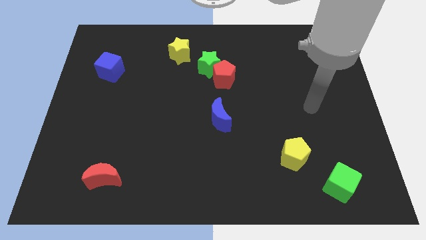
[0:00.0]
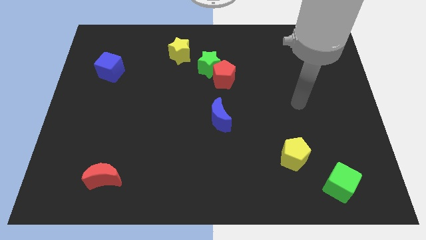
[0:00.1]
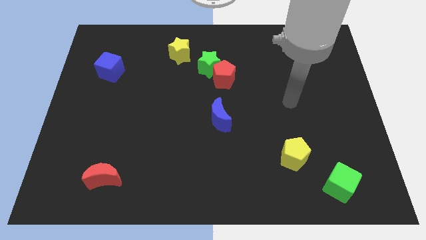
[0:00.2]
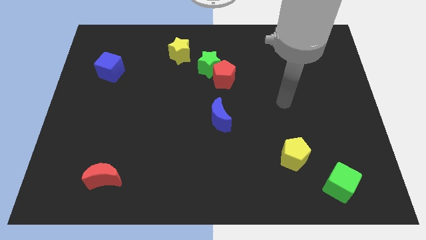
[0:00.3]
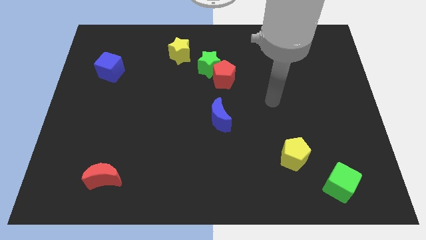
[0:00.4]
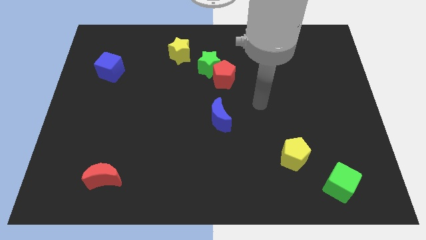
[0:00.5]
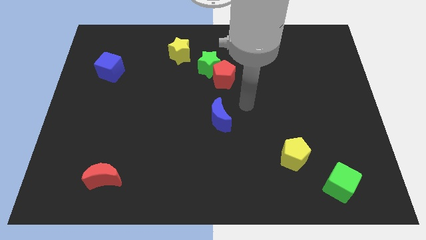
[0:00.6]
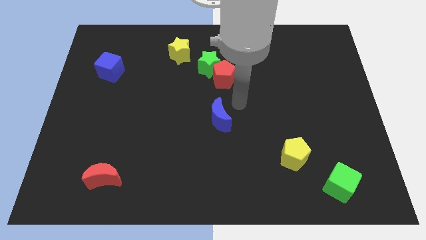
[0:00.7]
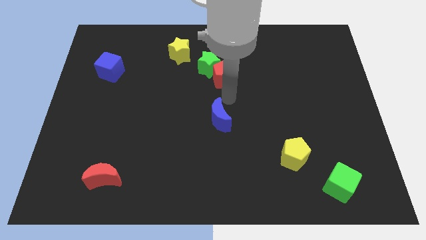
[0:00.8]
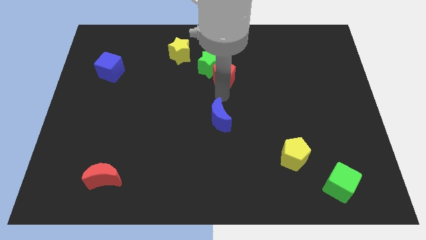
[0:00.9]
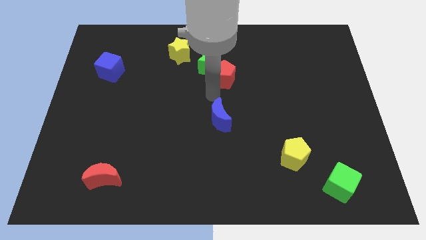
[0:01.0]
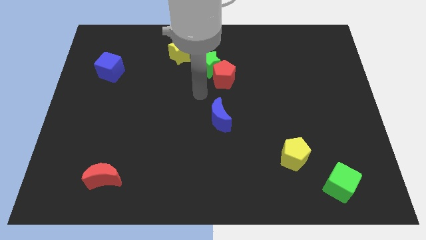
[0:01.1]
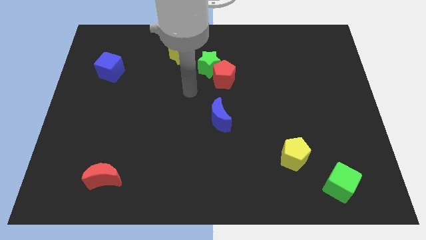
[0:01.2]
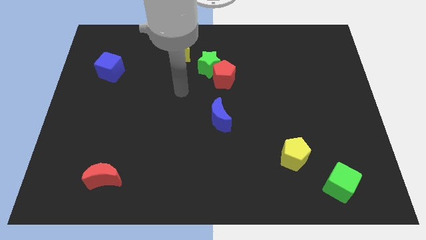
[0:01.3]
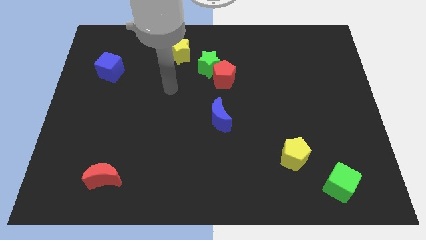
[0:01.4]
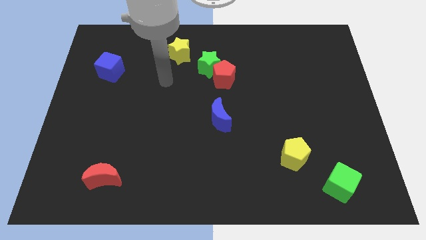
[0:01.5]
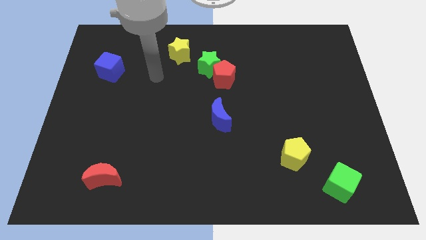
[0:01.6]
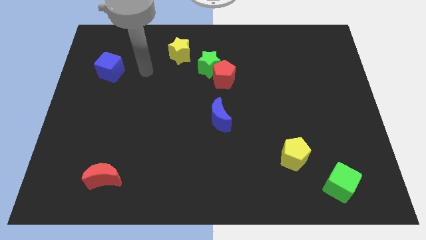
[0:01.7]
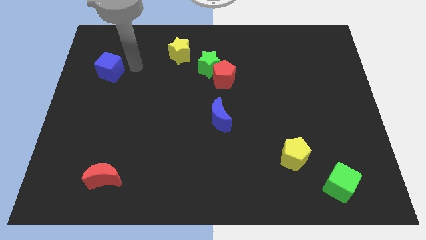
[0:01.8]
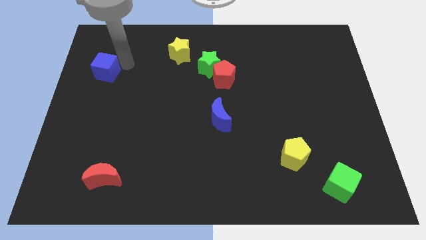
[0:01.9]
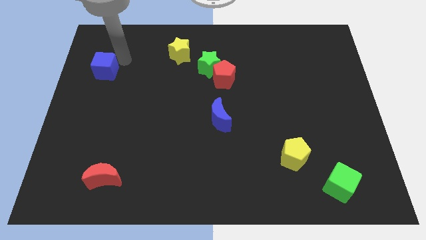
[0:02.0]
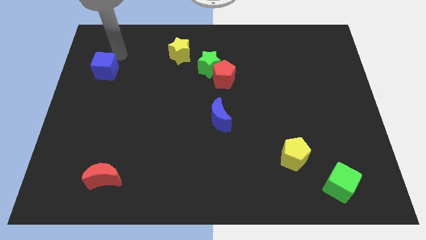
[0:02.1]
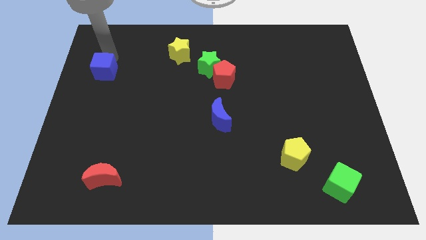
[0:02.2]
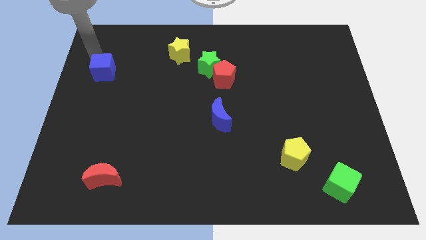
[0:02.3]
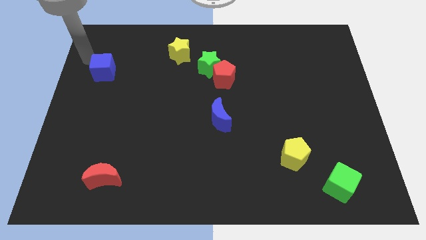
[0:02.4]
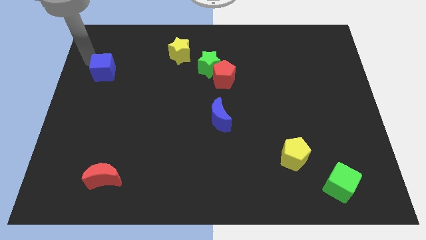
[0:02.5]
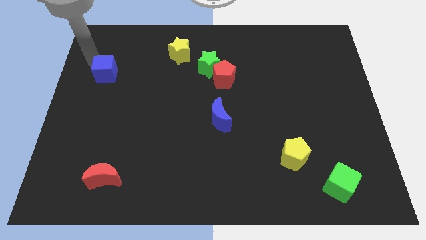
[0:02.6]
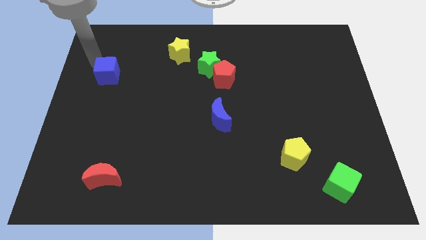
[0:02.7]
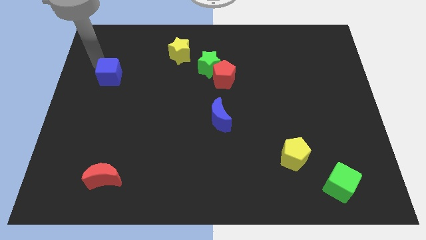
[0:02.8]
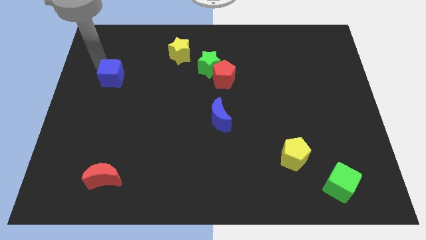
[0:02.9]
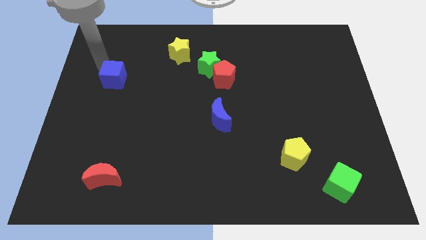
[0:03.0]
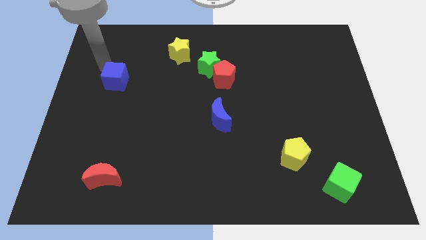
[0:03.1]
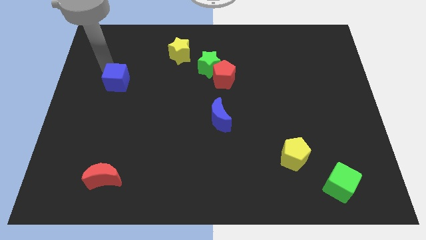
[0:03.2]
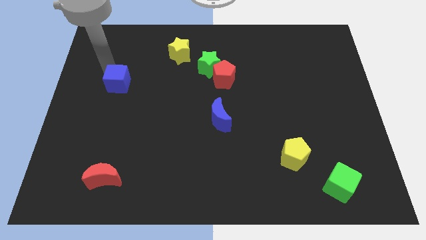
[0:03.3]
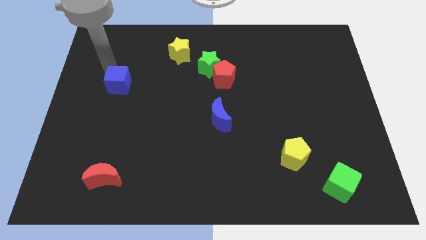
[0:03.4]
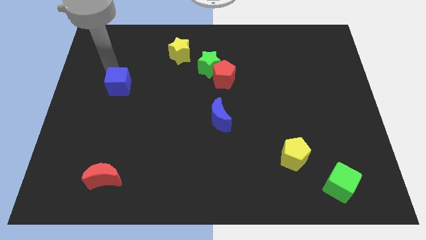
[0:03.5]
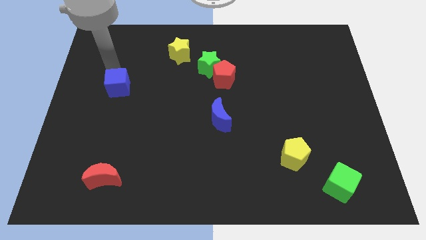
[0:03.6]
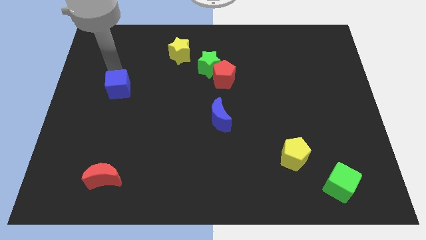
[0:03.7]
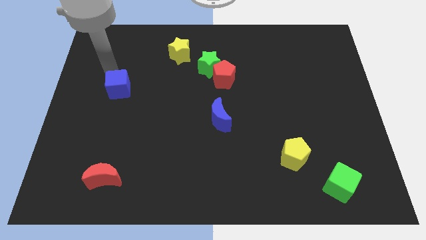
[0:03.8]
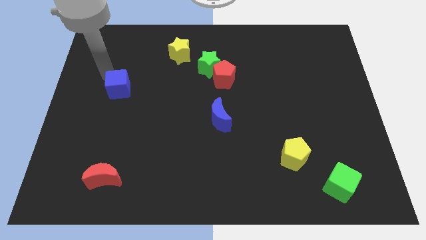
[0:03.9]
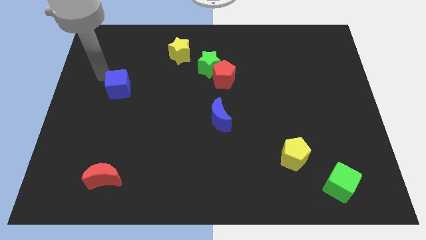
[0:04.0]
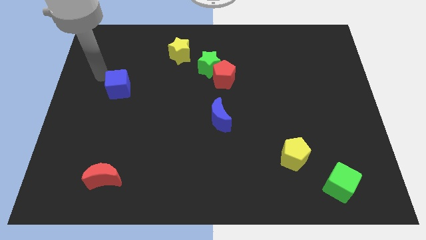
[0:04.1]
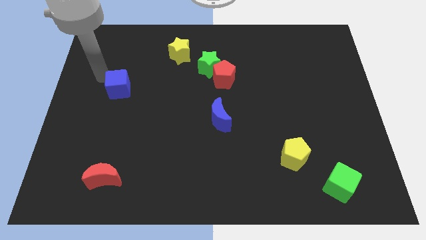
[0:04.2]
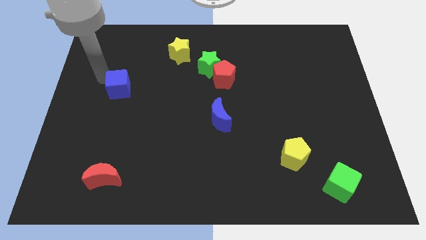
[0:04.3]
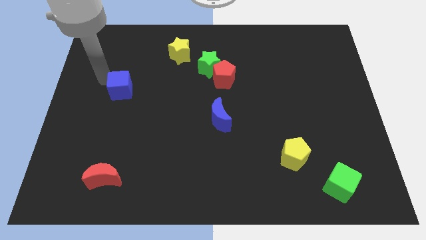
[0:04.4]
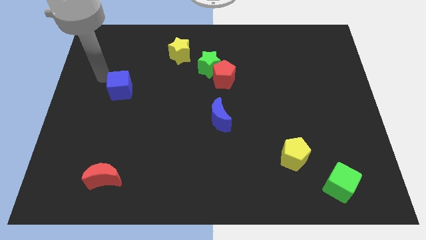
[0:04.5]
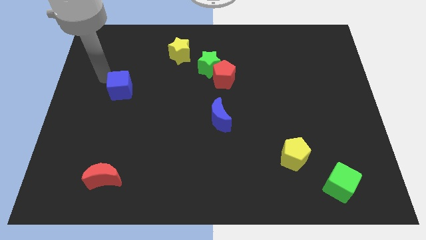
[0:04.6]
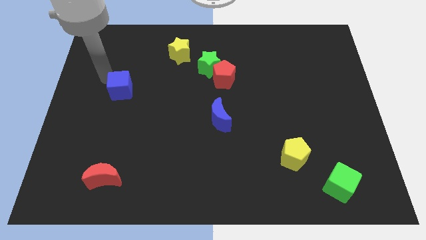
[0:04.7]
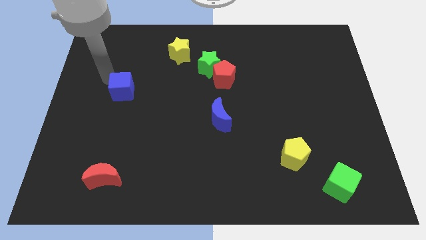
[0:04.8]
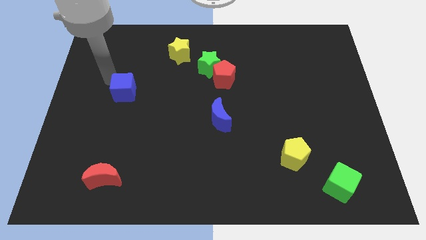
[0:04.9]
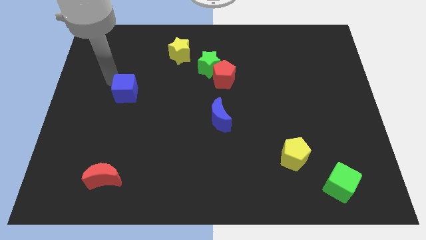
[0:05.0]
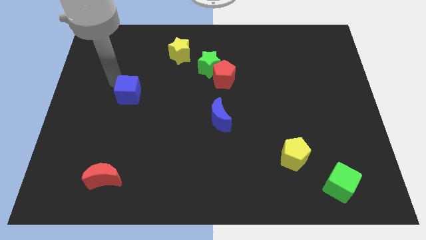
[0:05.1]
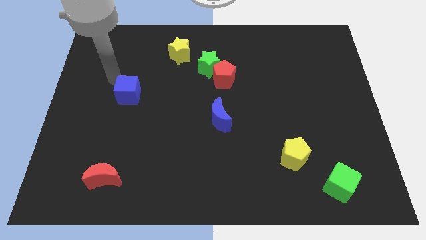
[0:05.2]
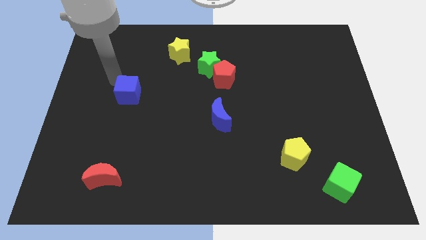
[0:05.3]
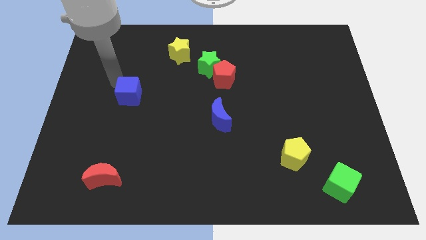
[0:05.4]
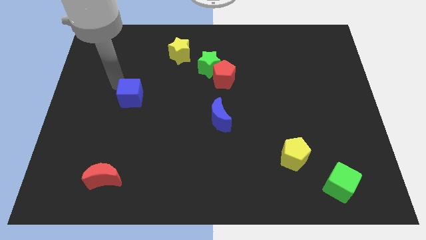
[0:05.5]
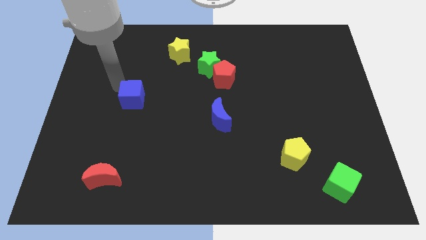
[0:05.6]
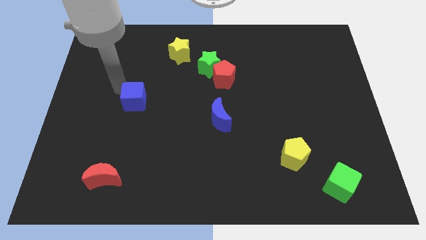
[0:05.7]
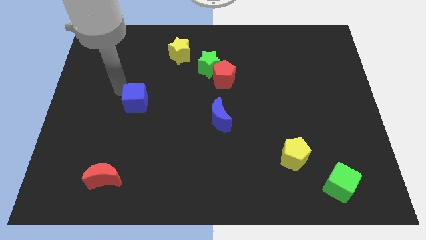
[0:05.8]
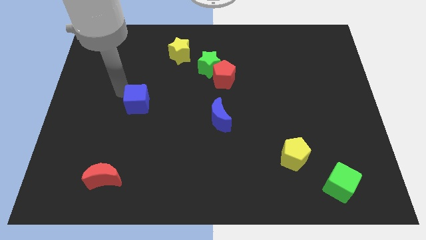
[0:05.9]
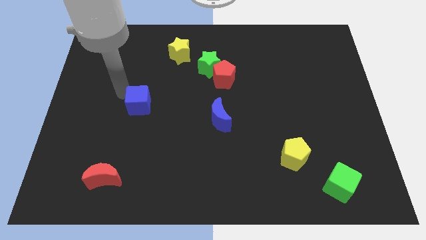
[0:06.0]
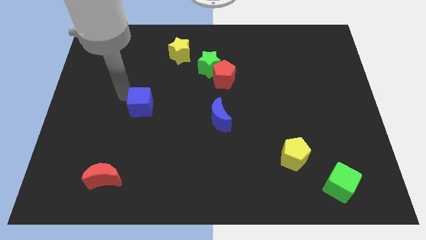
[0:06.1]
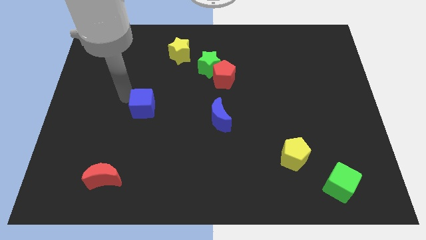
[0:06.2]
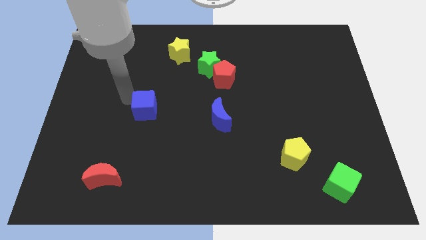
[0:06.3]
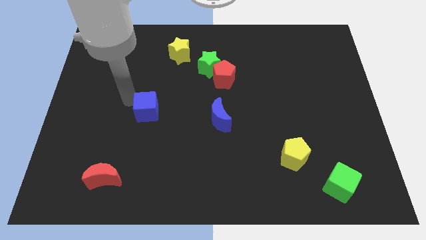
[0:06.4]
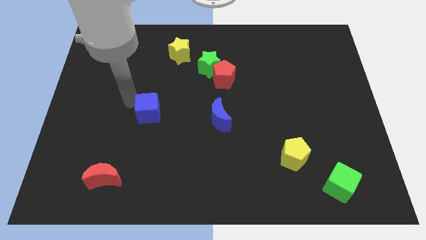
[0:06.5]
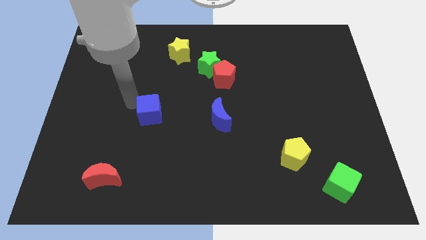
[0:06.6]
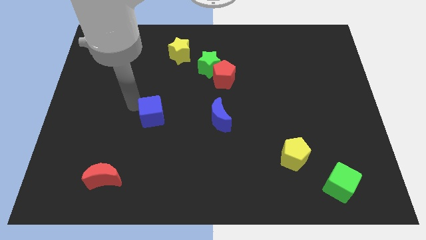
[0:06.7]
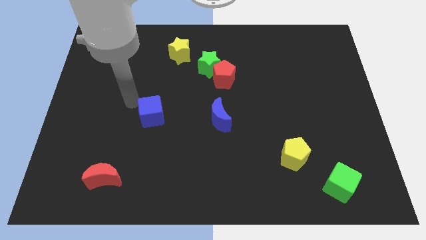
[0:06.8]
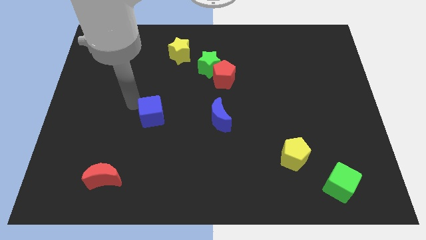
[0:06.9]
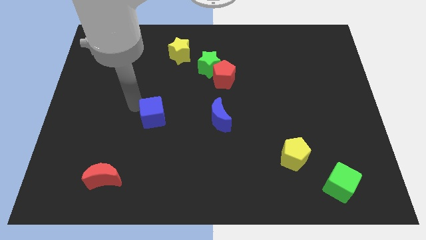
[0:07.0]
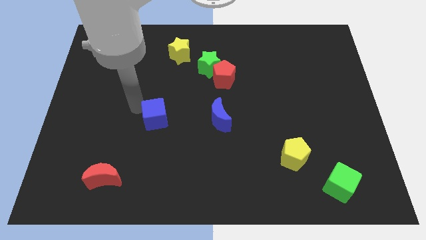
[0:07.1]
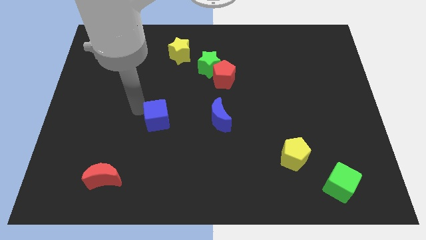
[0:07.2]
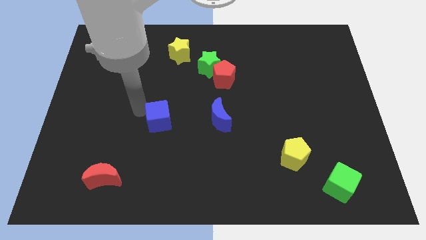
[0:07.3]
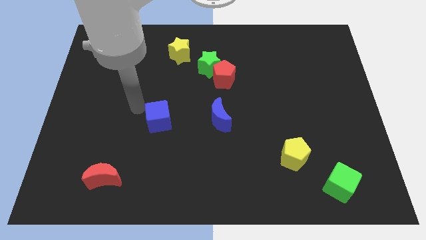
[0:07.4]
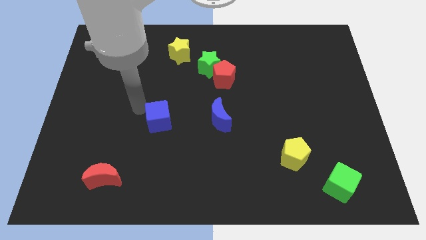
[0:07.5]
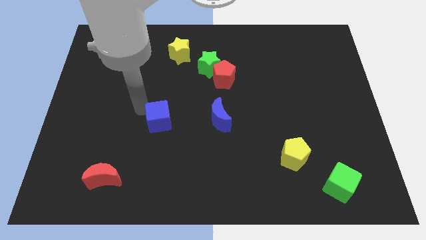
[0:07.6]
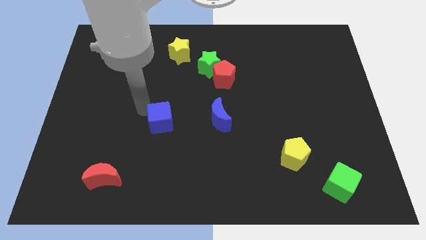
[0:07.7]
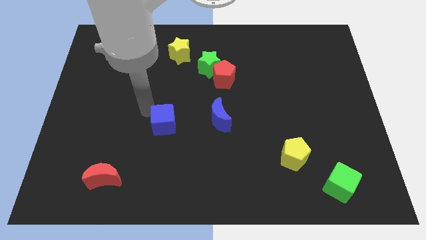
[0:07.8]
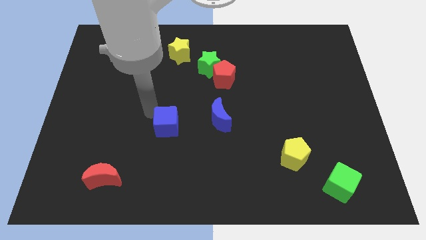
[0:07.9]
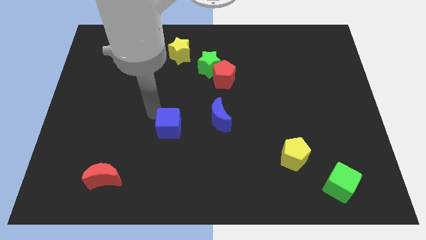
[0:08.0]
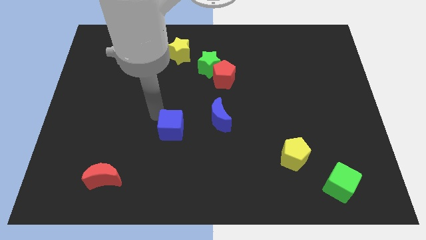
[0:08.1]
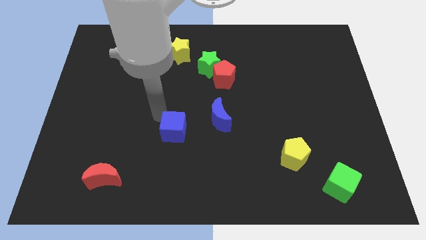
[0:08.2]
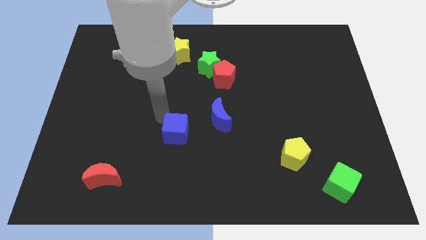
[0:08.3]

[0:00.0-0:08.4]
put the blue cube diagonally down and to the left of the blue moon
